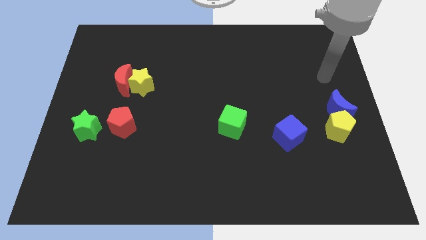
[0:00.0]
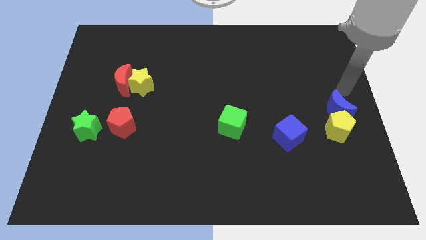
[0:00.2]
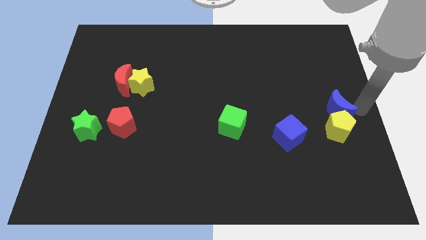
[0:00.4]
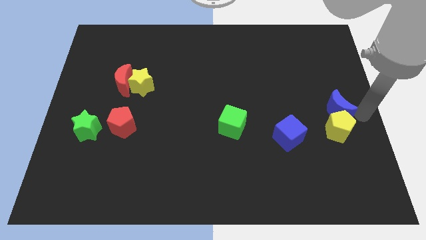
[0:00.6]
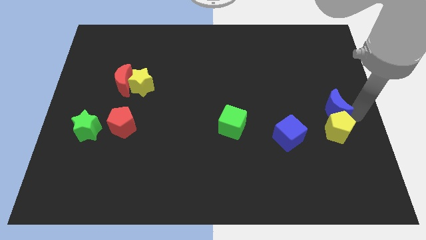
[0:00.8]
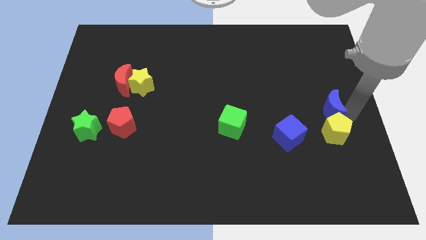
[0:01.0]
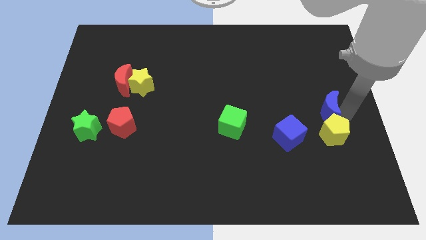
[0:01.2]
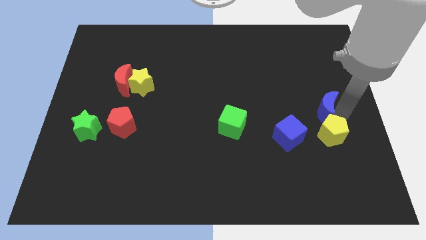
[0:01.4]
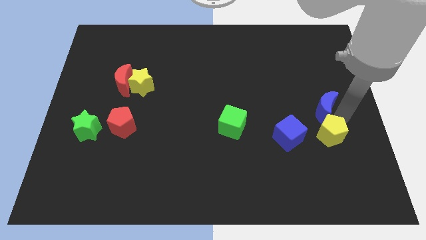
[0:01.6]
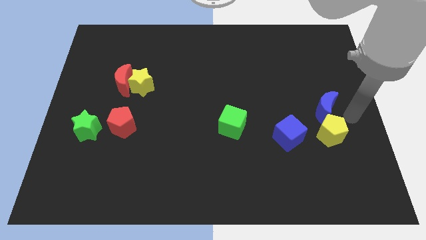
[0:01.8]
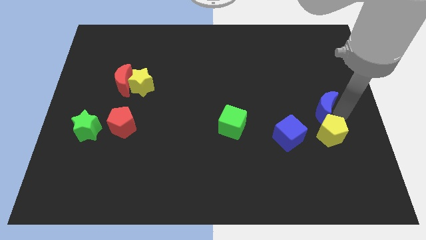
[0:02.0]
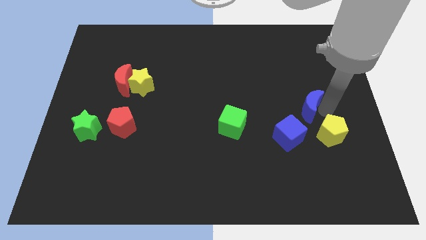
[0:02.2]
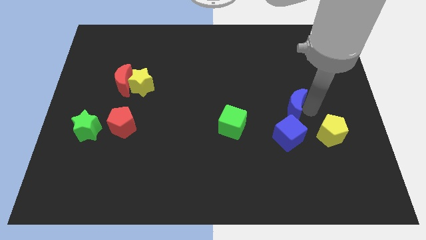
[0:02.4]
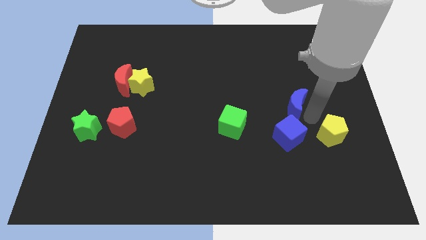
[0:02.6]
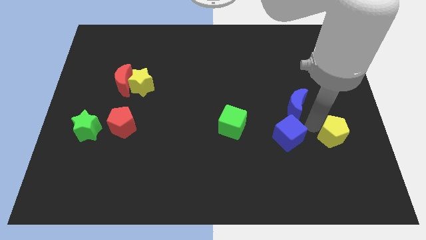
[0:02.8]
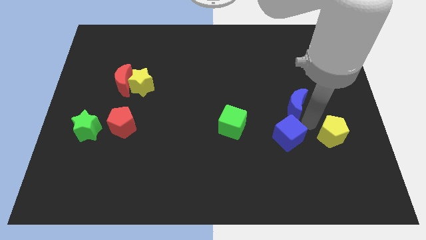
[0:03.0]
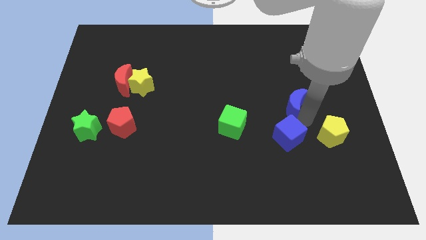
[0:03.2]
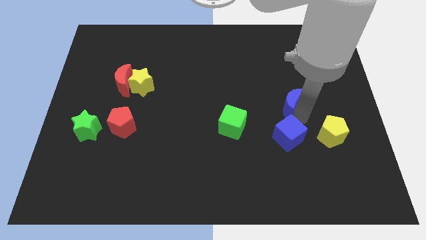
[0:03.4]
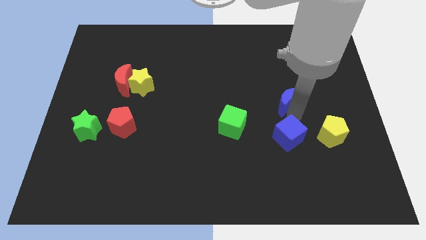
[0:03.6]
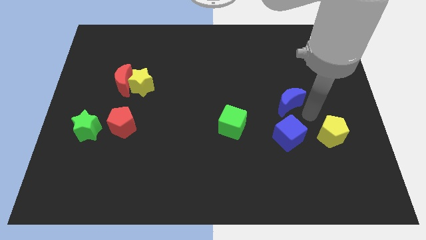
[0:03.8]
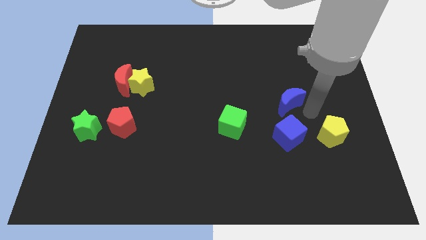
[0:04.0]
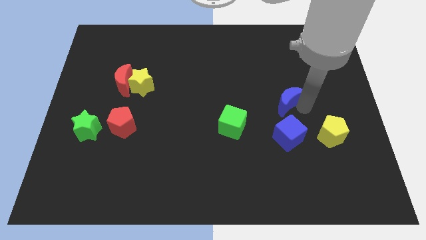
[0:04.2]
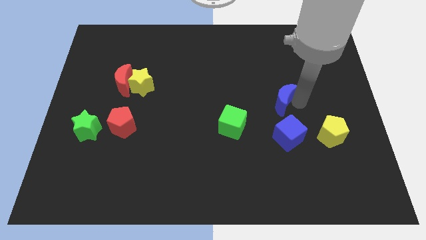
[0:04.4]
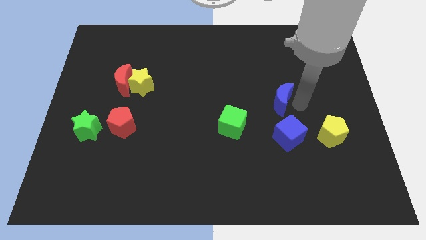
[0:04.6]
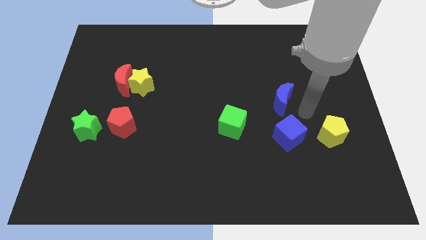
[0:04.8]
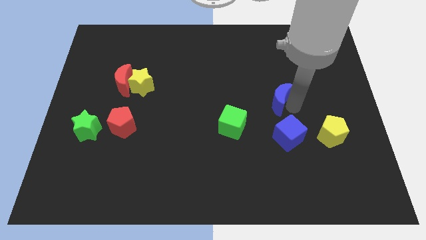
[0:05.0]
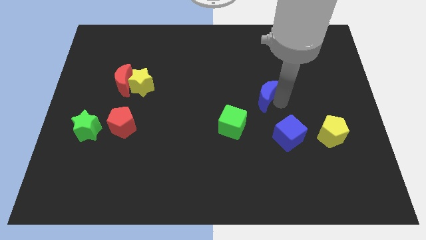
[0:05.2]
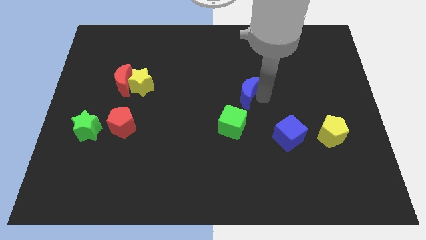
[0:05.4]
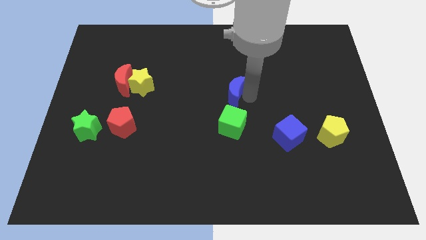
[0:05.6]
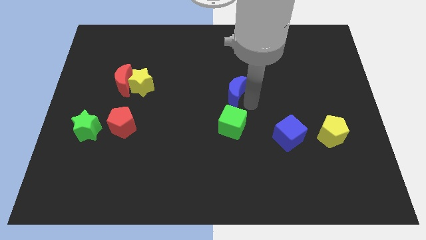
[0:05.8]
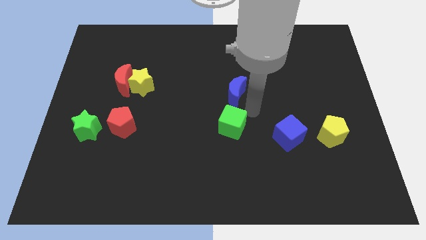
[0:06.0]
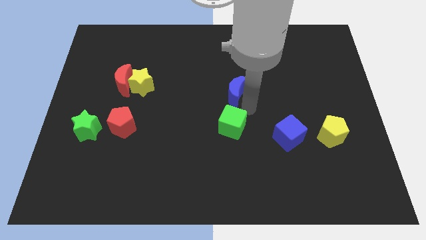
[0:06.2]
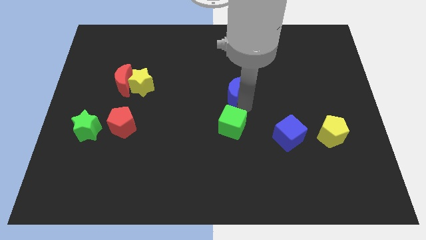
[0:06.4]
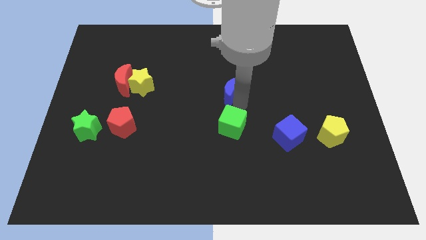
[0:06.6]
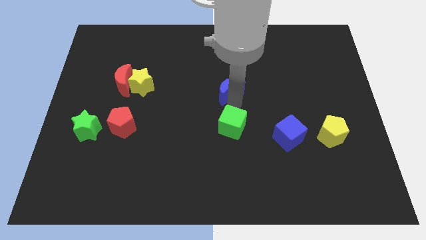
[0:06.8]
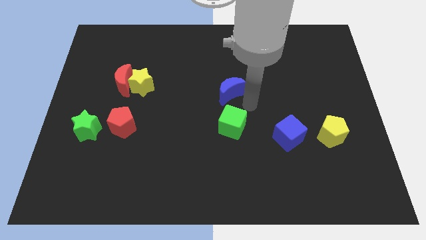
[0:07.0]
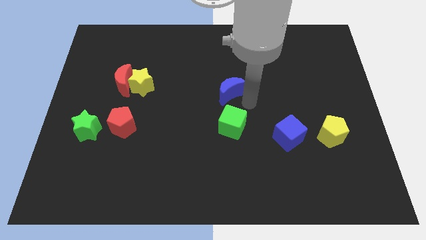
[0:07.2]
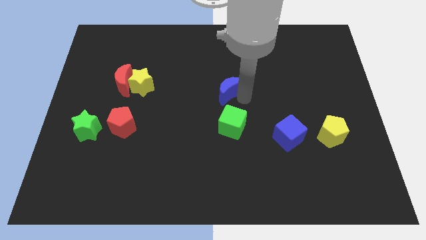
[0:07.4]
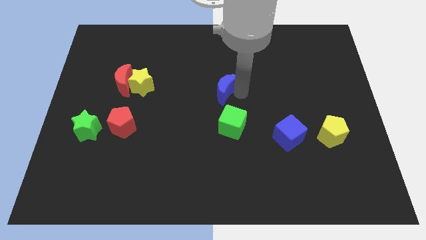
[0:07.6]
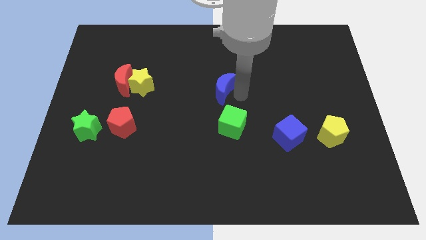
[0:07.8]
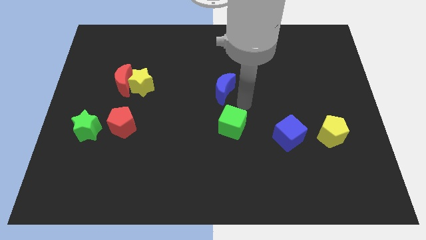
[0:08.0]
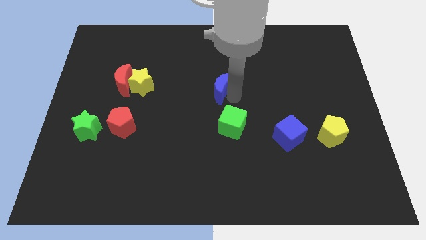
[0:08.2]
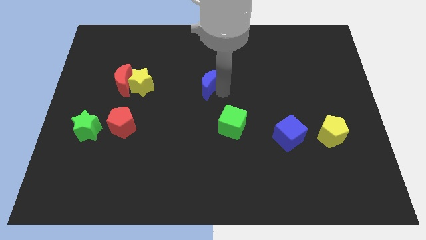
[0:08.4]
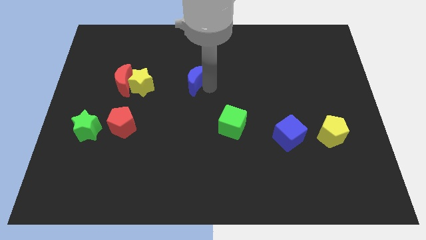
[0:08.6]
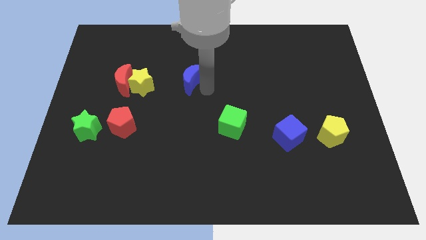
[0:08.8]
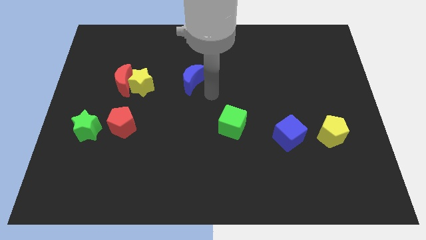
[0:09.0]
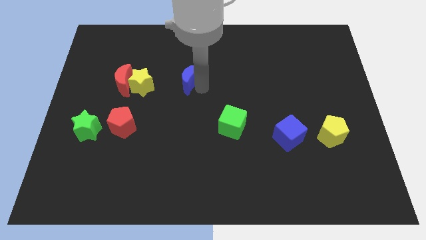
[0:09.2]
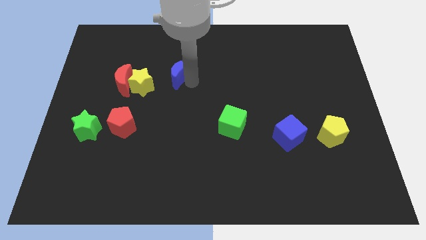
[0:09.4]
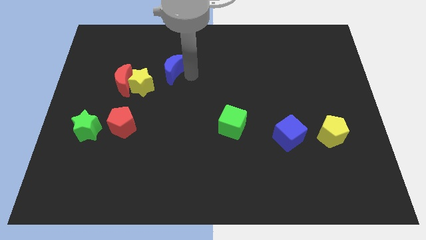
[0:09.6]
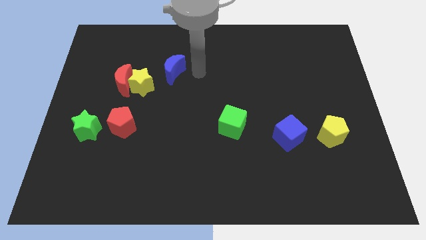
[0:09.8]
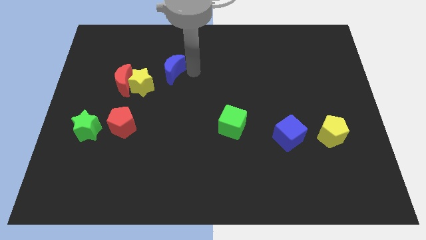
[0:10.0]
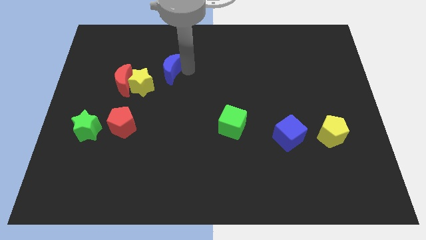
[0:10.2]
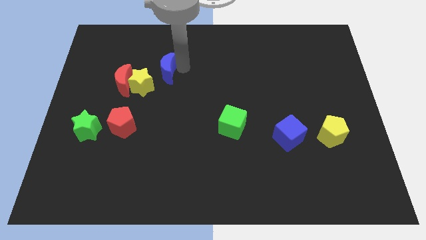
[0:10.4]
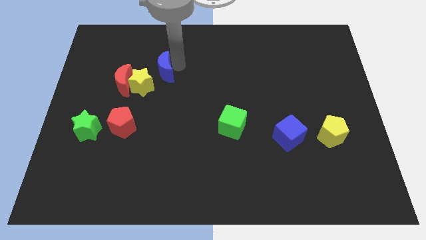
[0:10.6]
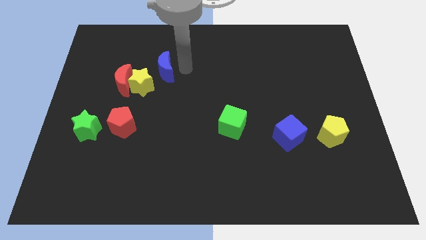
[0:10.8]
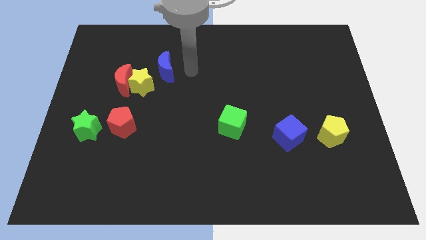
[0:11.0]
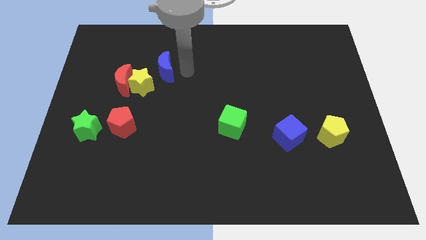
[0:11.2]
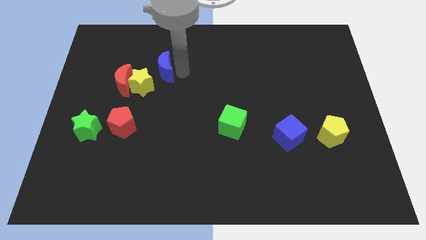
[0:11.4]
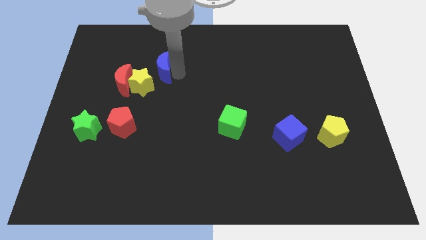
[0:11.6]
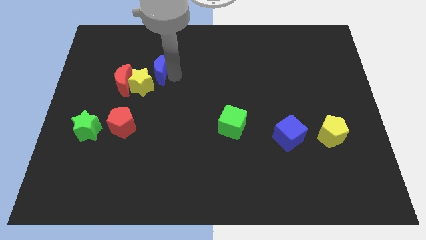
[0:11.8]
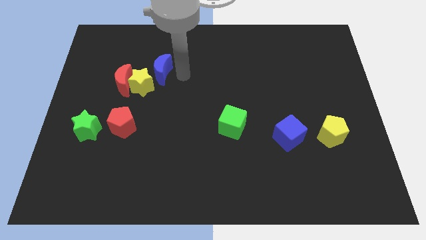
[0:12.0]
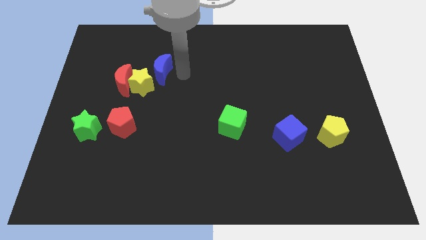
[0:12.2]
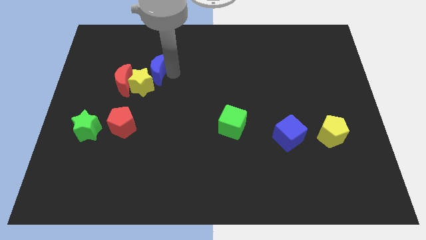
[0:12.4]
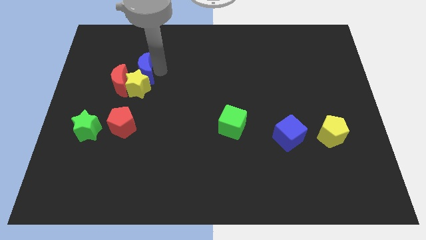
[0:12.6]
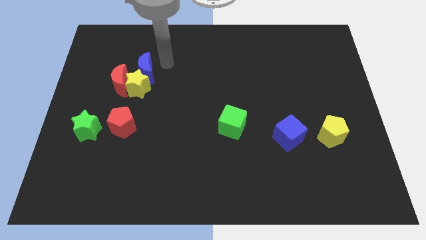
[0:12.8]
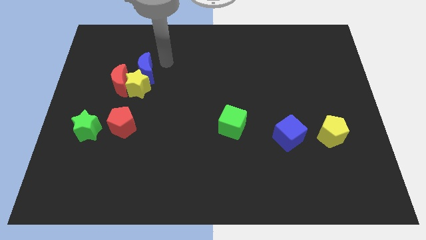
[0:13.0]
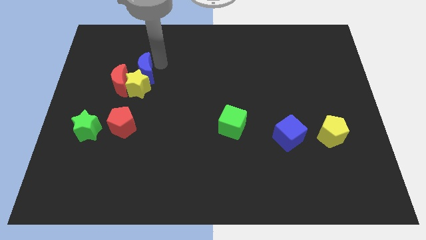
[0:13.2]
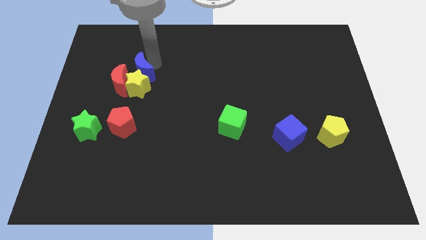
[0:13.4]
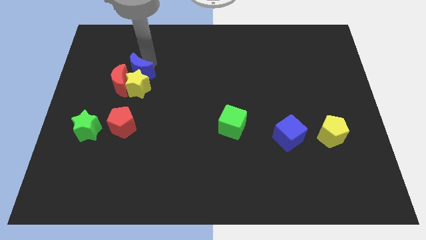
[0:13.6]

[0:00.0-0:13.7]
put the blue moon close to the red moon

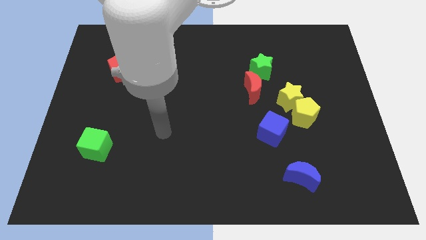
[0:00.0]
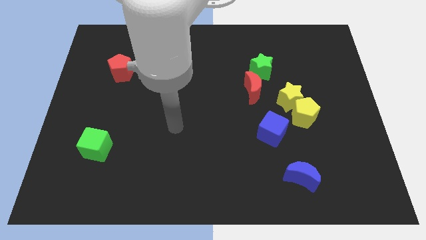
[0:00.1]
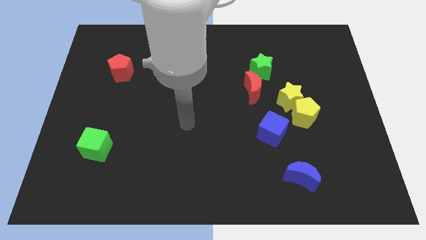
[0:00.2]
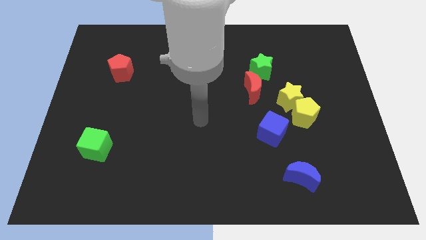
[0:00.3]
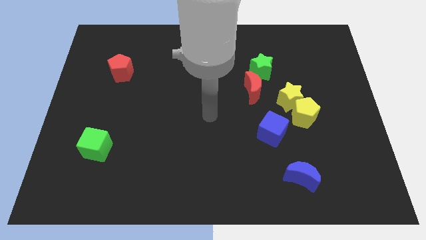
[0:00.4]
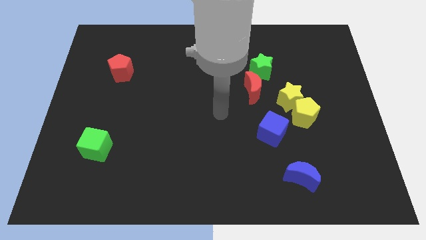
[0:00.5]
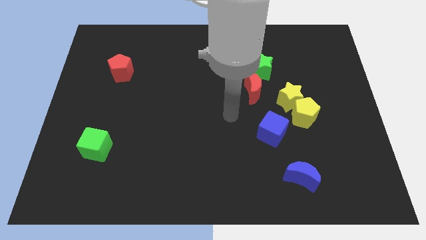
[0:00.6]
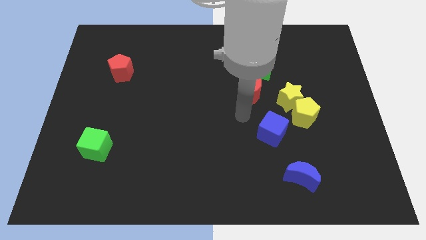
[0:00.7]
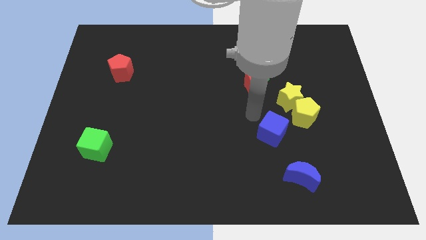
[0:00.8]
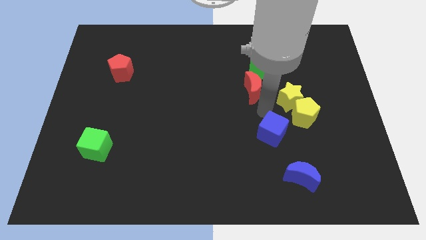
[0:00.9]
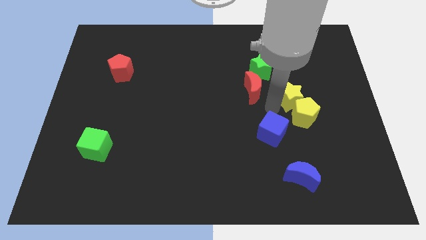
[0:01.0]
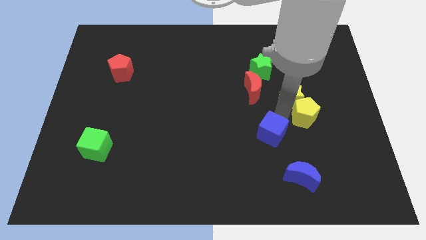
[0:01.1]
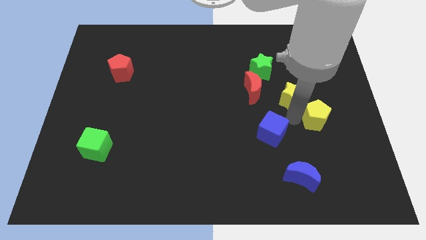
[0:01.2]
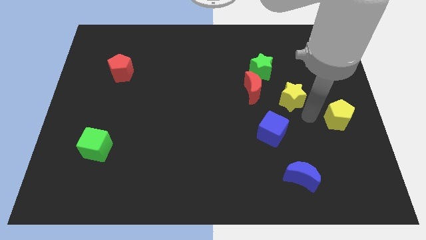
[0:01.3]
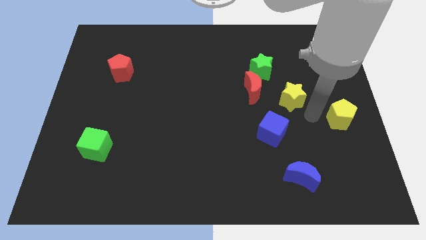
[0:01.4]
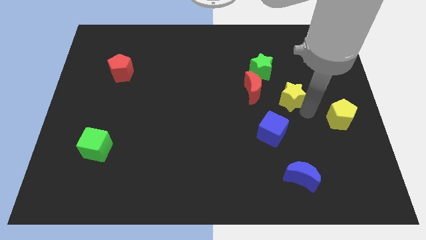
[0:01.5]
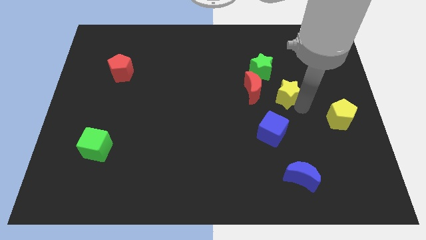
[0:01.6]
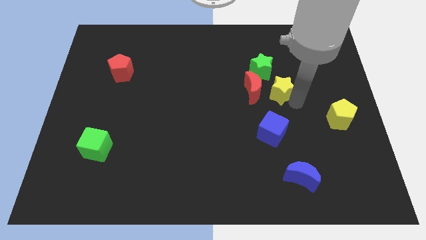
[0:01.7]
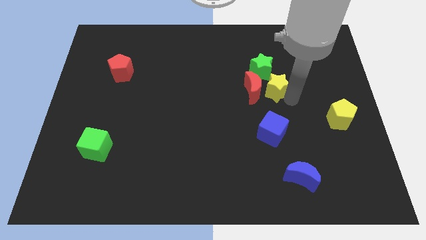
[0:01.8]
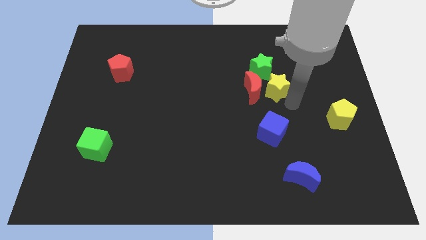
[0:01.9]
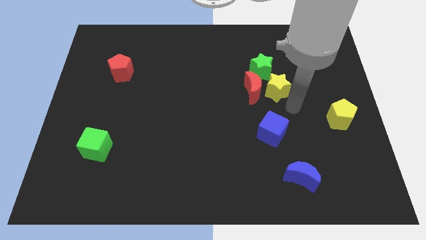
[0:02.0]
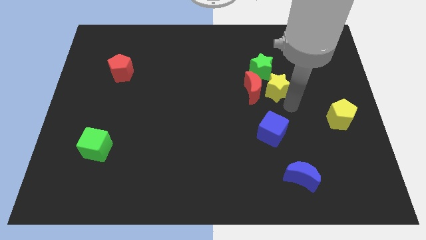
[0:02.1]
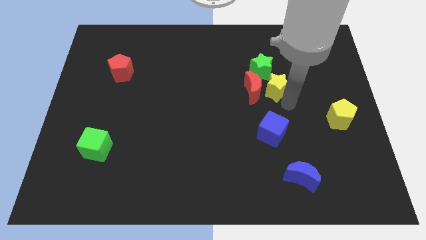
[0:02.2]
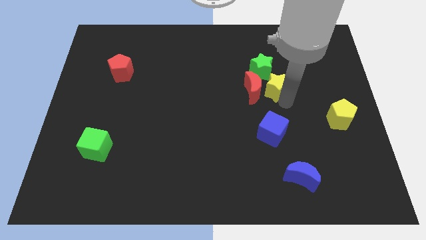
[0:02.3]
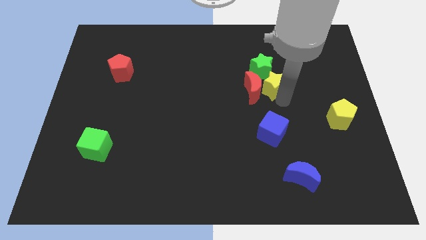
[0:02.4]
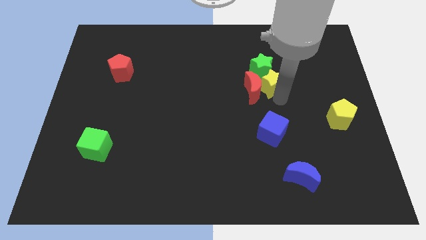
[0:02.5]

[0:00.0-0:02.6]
move the yellow star to the green star
